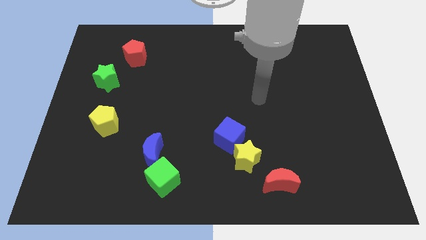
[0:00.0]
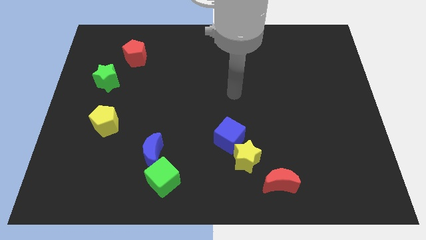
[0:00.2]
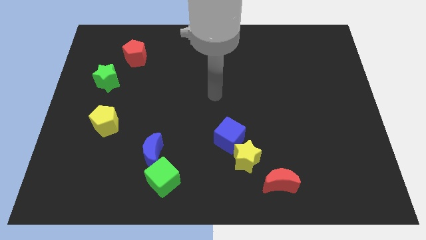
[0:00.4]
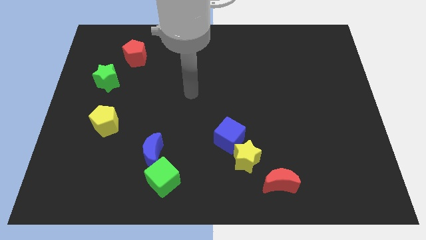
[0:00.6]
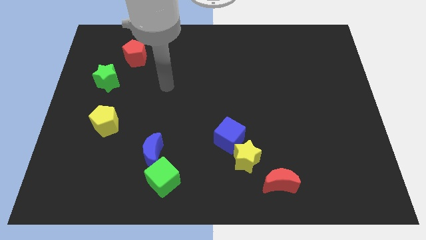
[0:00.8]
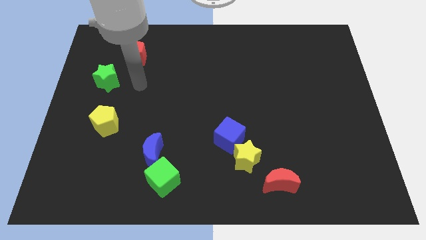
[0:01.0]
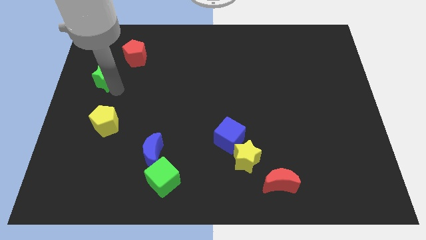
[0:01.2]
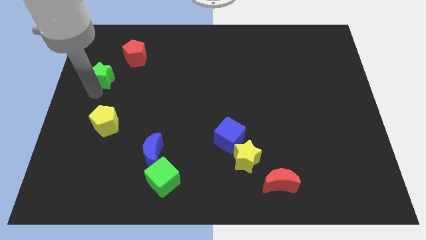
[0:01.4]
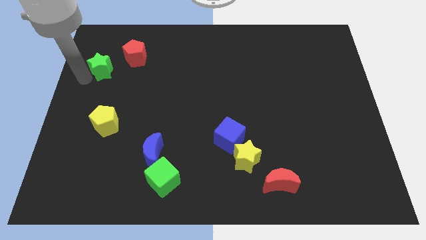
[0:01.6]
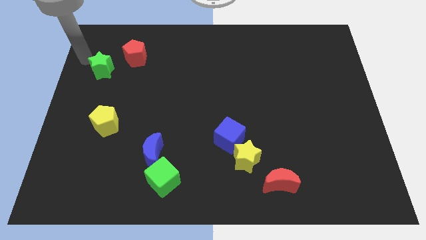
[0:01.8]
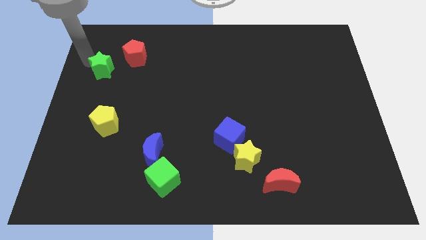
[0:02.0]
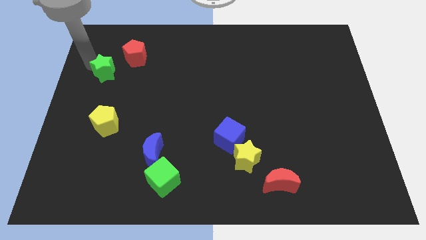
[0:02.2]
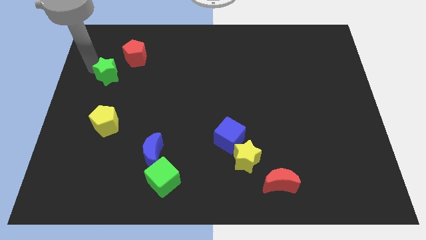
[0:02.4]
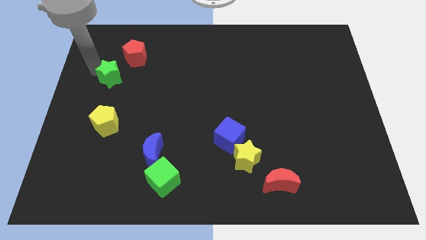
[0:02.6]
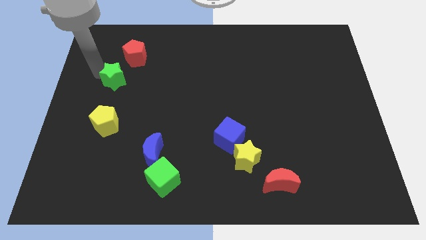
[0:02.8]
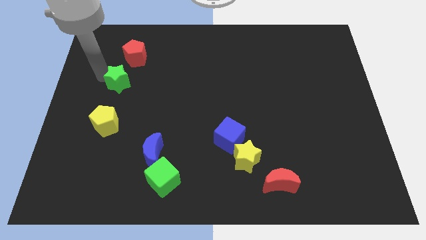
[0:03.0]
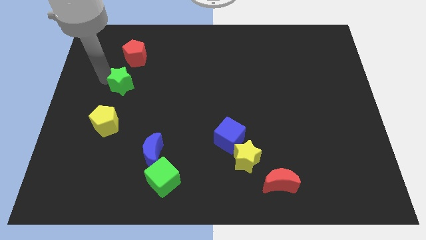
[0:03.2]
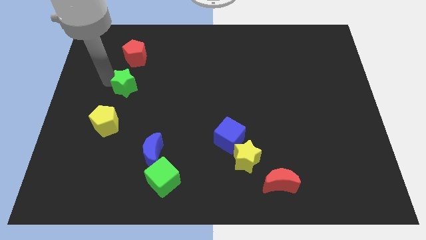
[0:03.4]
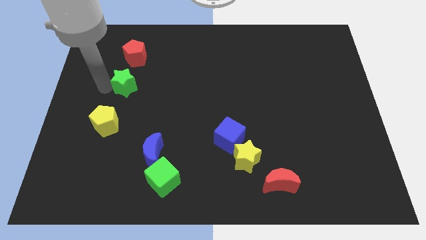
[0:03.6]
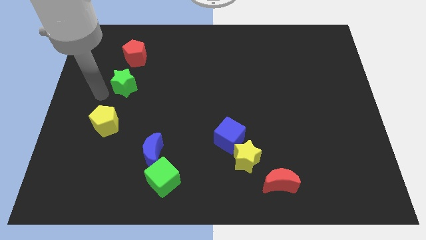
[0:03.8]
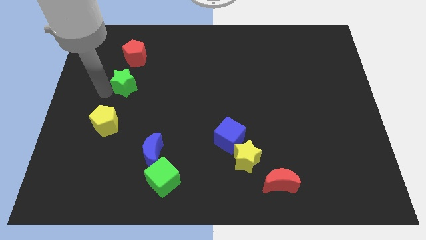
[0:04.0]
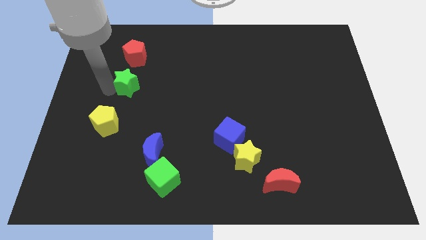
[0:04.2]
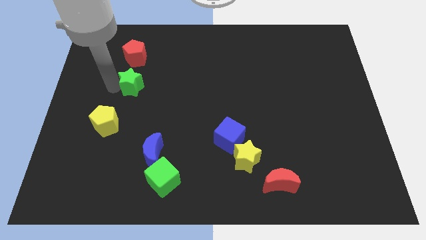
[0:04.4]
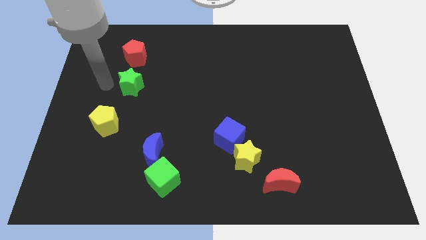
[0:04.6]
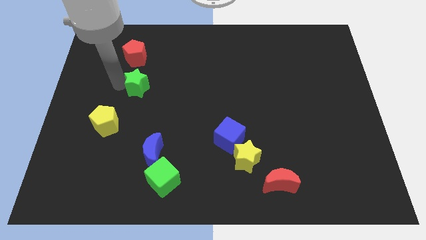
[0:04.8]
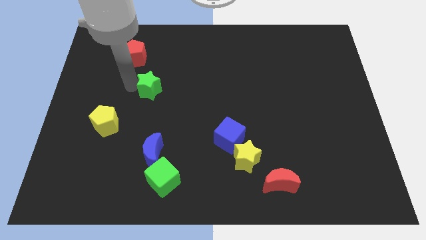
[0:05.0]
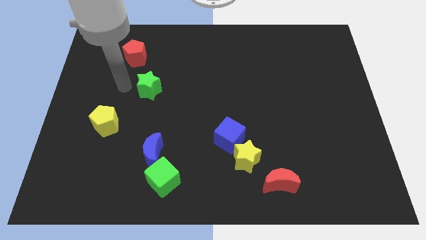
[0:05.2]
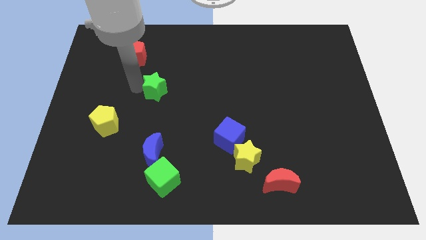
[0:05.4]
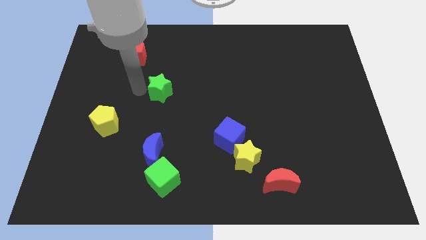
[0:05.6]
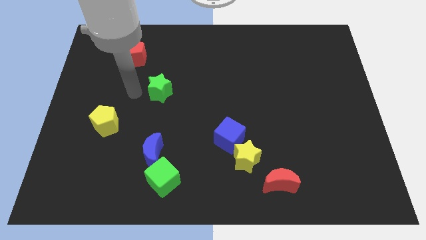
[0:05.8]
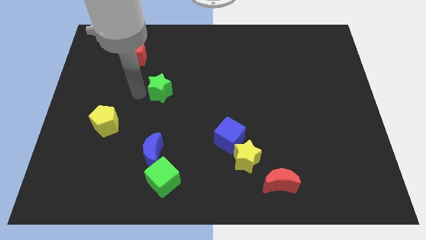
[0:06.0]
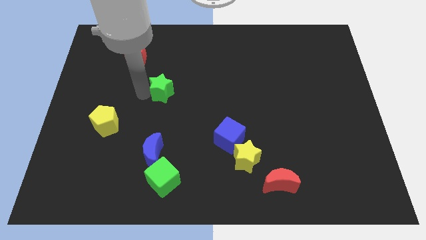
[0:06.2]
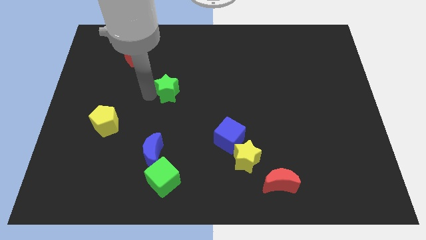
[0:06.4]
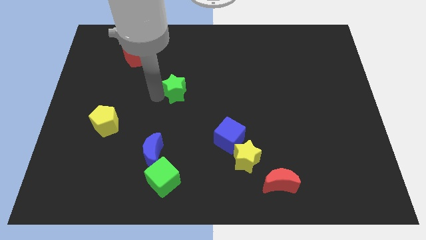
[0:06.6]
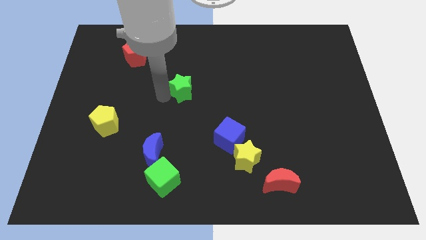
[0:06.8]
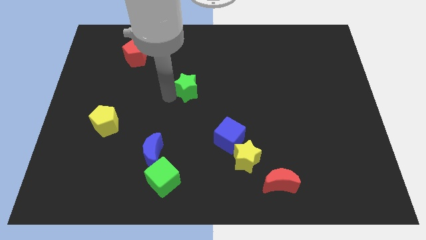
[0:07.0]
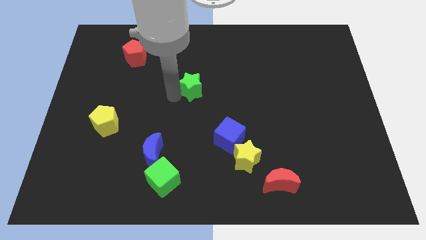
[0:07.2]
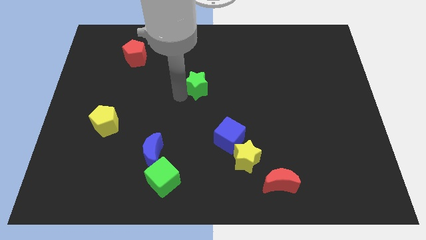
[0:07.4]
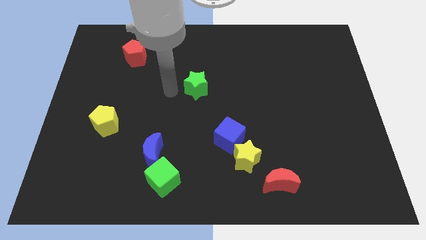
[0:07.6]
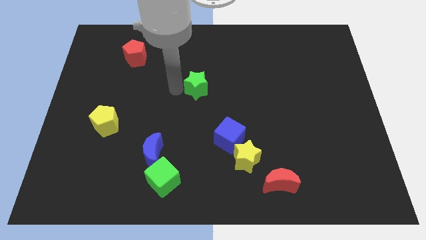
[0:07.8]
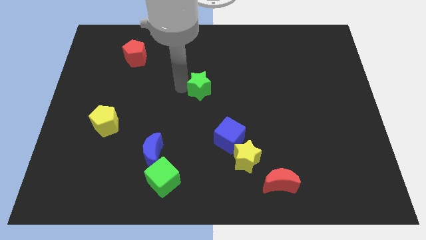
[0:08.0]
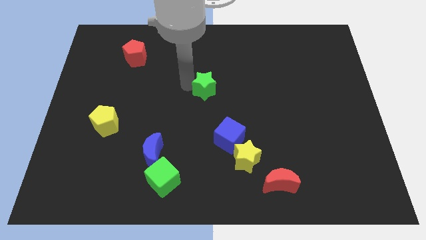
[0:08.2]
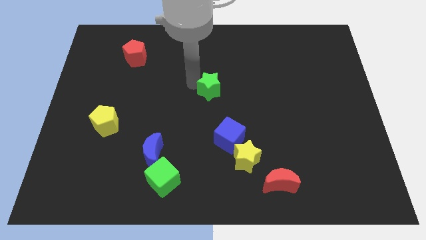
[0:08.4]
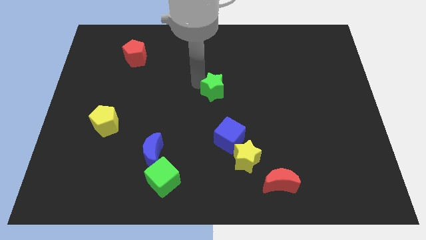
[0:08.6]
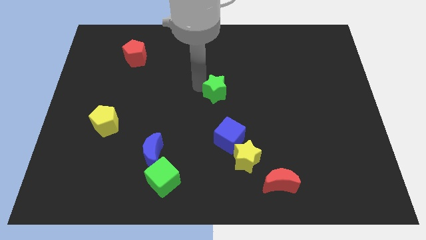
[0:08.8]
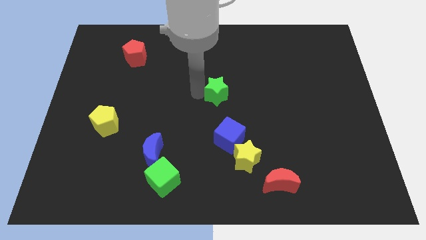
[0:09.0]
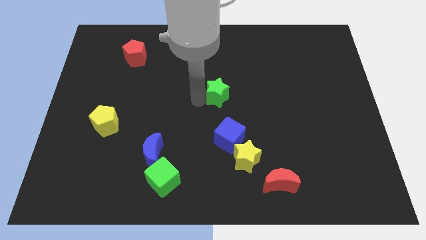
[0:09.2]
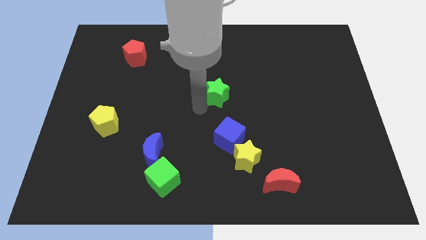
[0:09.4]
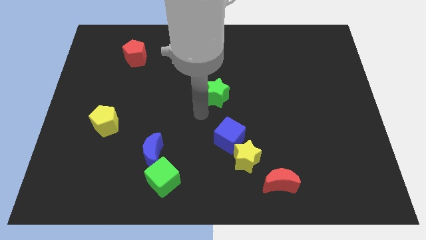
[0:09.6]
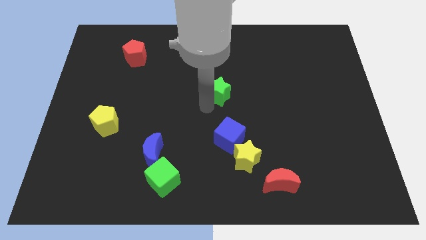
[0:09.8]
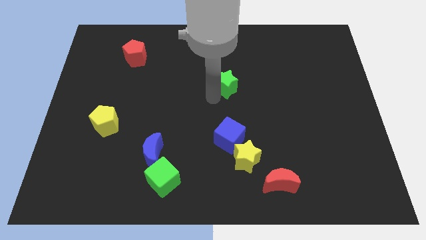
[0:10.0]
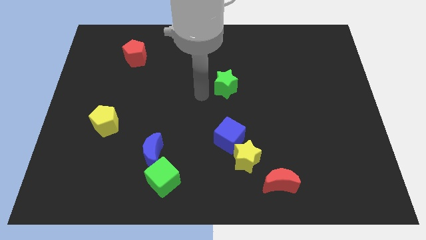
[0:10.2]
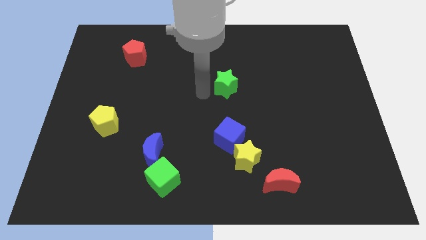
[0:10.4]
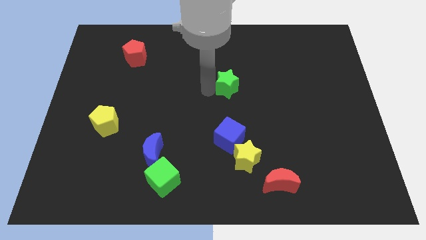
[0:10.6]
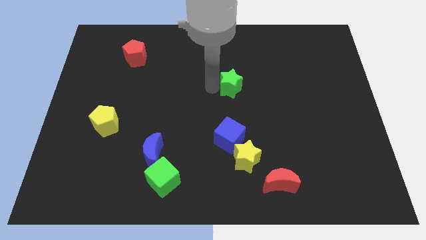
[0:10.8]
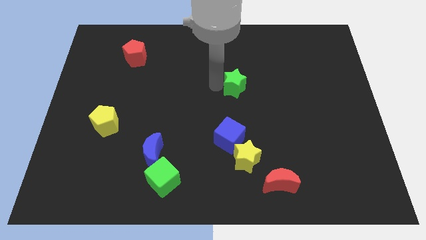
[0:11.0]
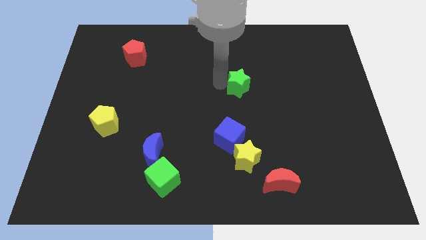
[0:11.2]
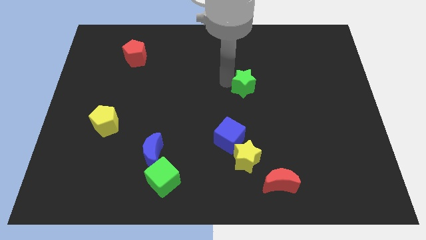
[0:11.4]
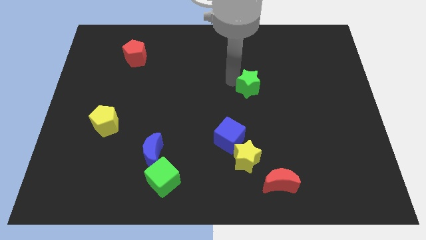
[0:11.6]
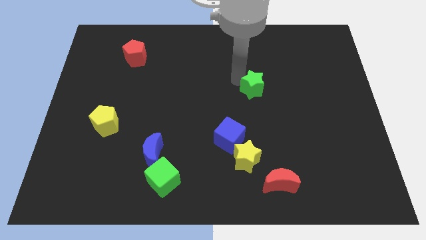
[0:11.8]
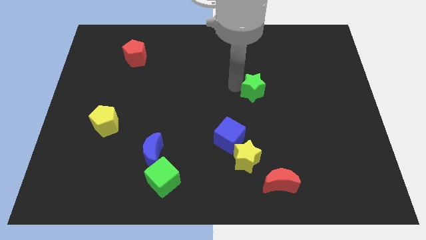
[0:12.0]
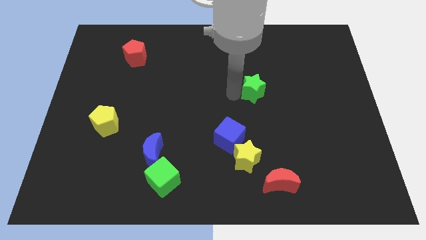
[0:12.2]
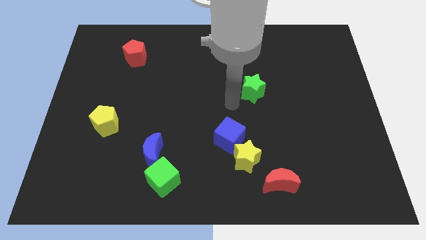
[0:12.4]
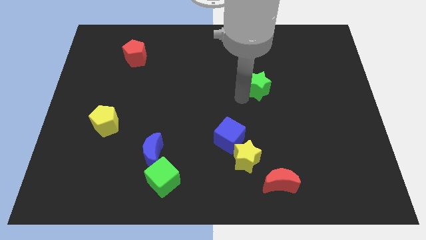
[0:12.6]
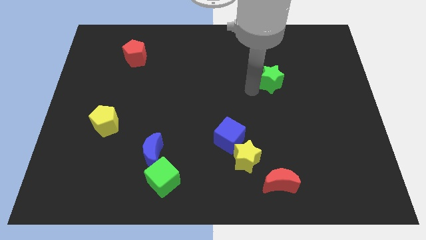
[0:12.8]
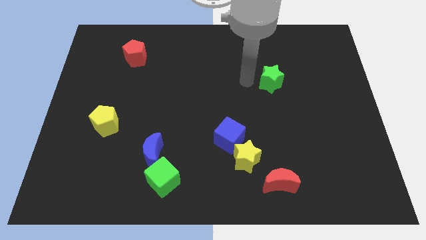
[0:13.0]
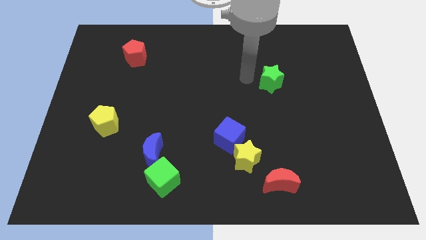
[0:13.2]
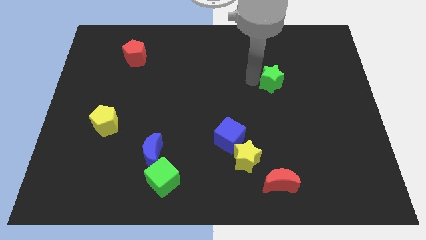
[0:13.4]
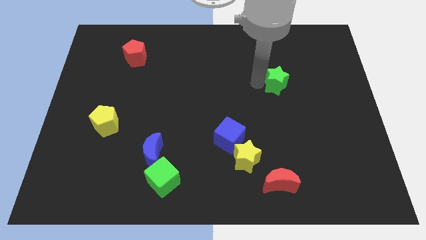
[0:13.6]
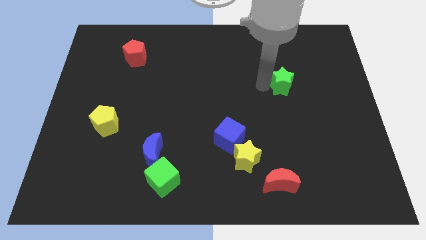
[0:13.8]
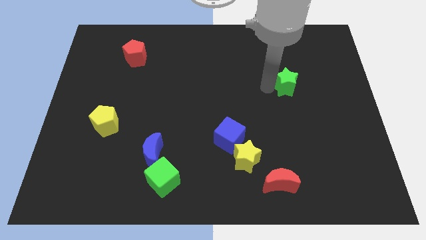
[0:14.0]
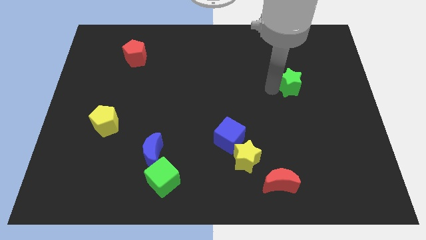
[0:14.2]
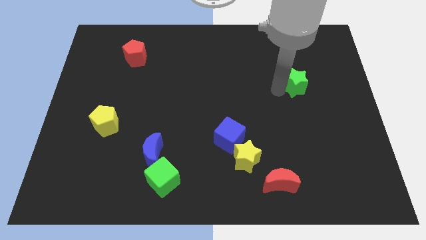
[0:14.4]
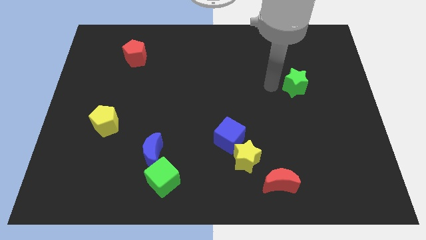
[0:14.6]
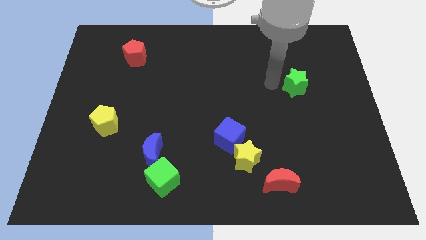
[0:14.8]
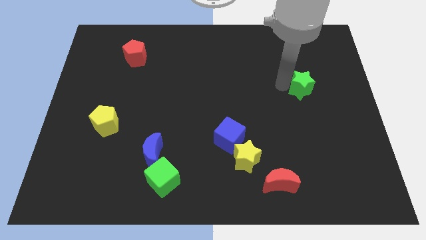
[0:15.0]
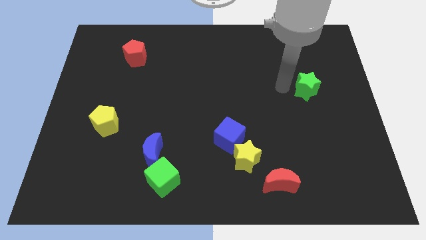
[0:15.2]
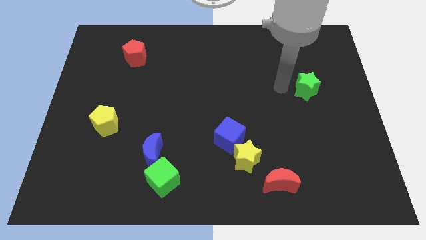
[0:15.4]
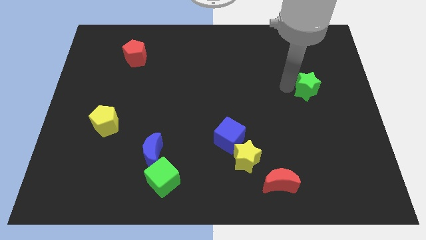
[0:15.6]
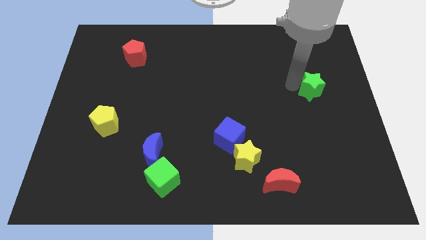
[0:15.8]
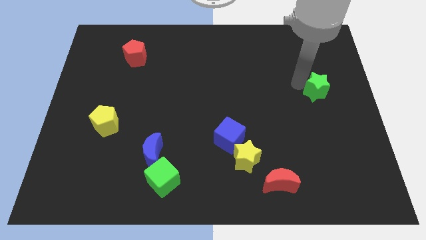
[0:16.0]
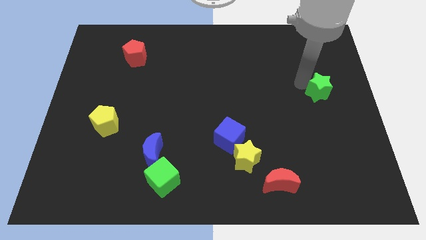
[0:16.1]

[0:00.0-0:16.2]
slide the green star to the right side
